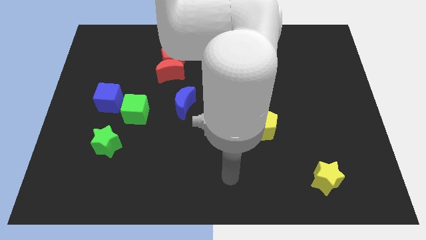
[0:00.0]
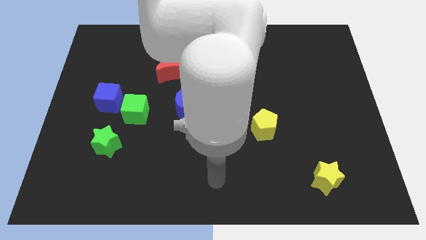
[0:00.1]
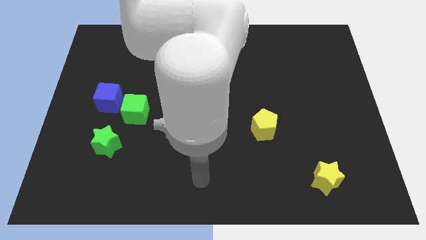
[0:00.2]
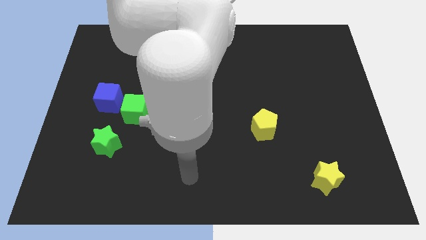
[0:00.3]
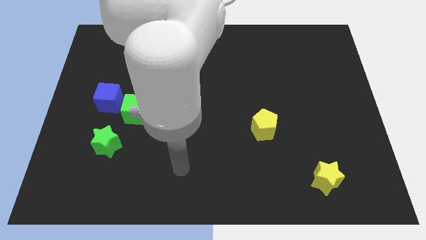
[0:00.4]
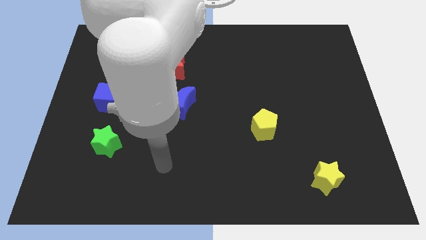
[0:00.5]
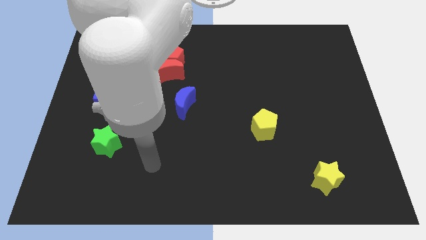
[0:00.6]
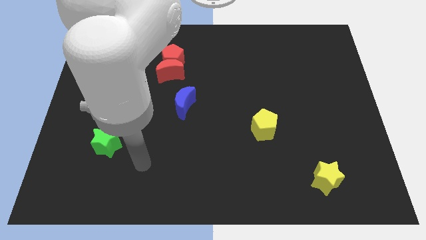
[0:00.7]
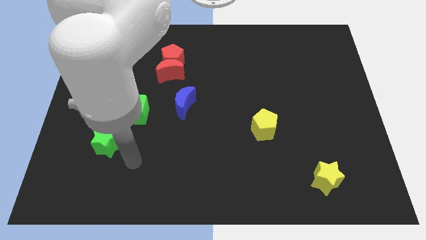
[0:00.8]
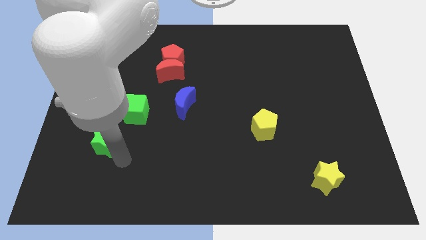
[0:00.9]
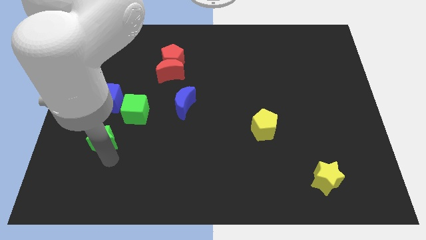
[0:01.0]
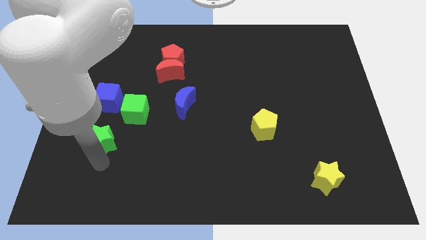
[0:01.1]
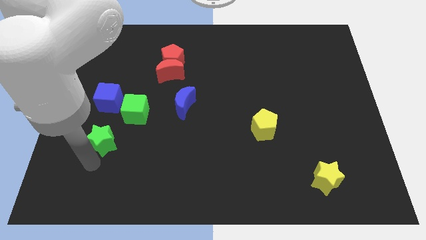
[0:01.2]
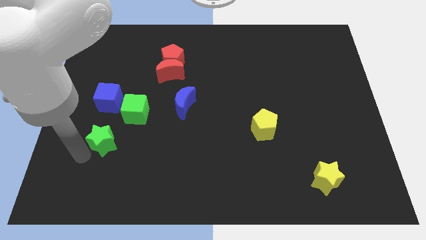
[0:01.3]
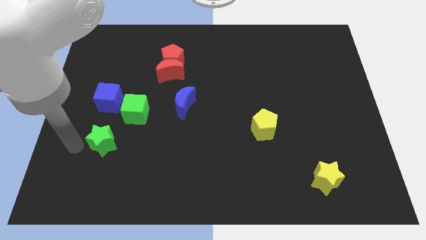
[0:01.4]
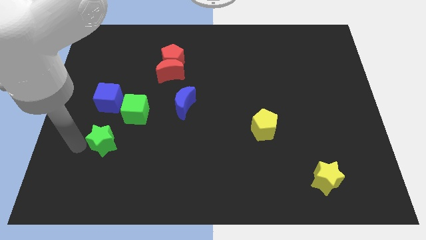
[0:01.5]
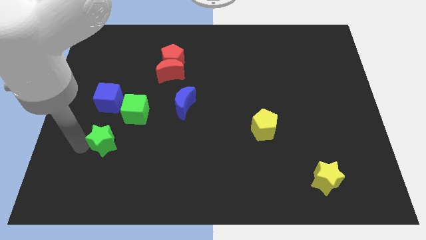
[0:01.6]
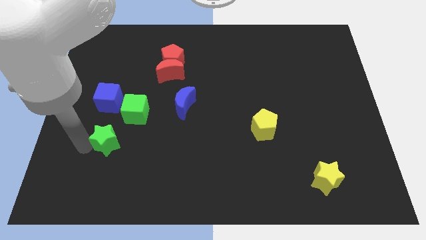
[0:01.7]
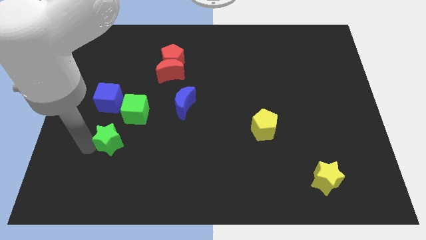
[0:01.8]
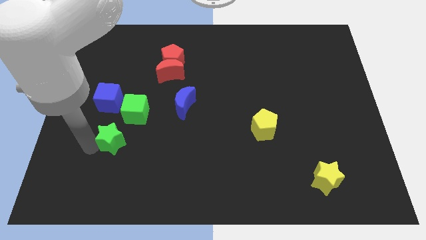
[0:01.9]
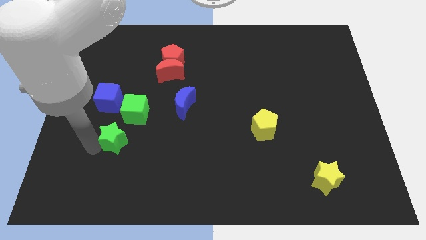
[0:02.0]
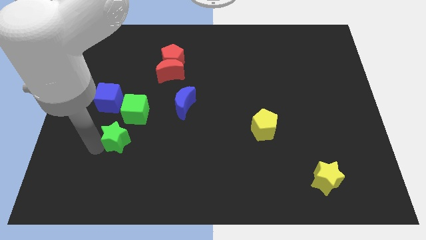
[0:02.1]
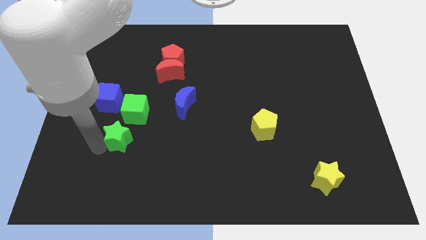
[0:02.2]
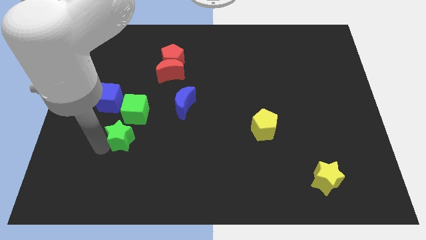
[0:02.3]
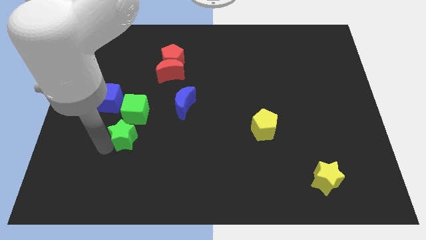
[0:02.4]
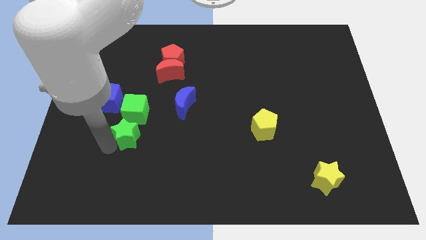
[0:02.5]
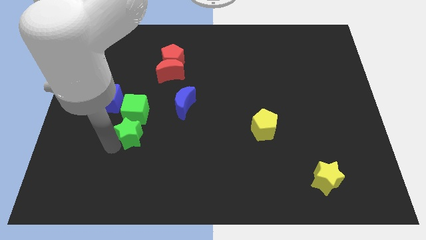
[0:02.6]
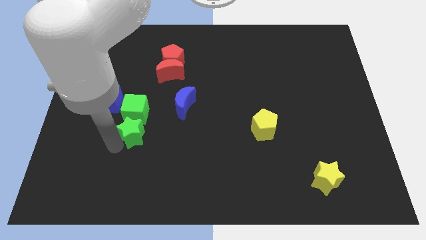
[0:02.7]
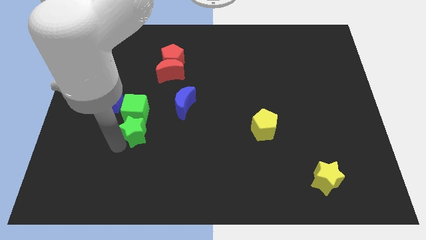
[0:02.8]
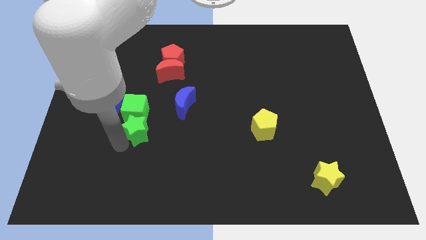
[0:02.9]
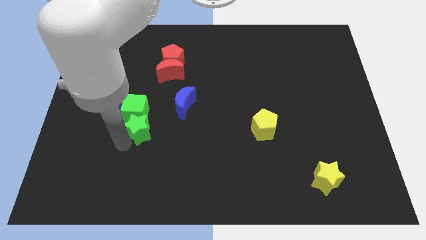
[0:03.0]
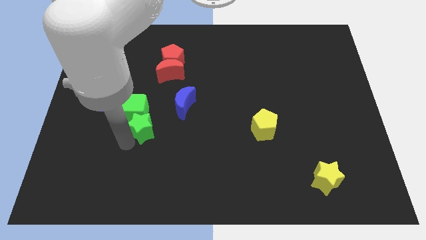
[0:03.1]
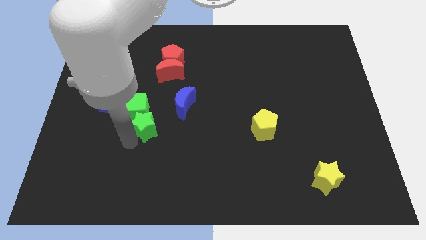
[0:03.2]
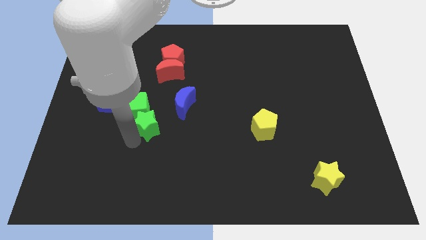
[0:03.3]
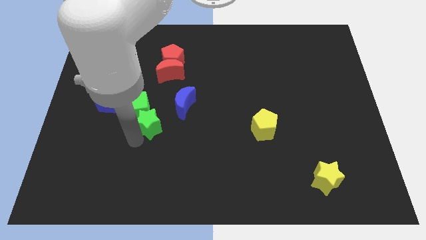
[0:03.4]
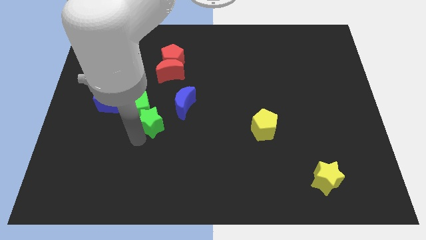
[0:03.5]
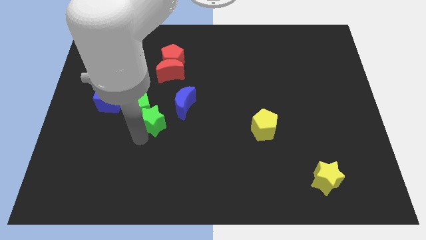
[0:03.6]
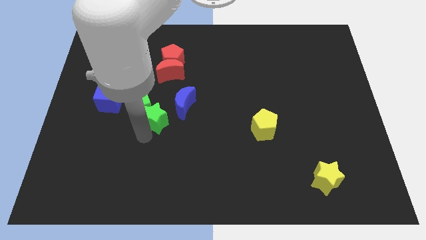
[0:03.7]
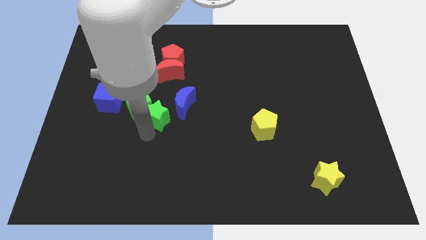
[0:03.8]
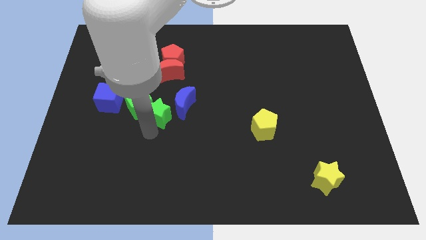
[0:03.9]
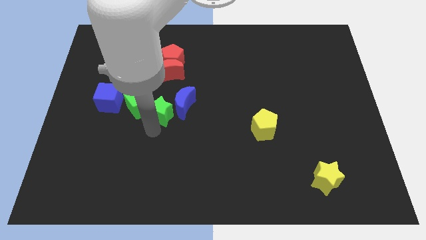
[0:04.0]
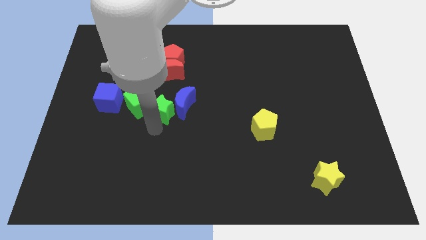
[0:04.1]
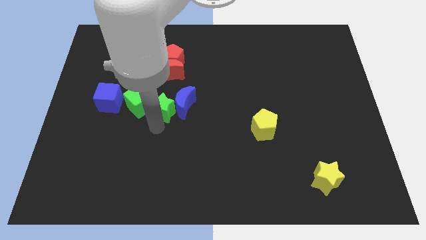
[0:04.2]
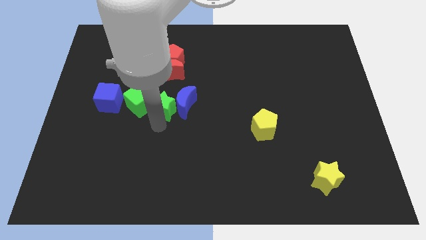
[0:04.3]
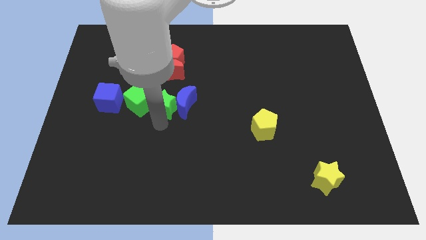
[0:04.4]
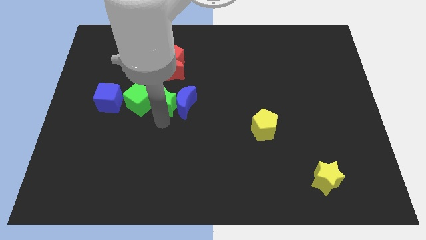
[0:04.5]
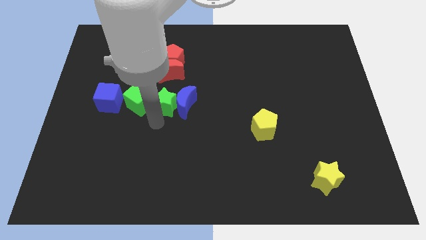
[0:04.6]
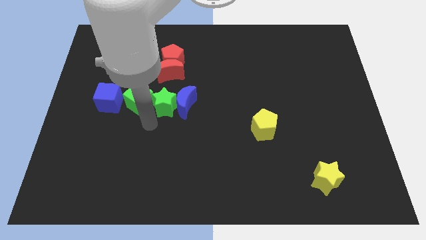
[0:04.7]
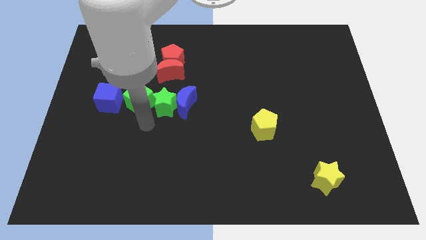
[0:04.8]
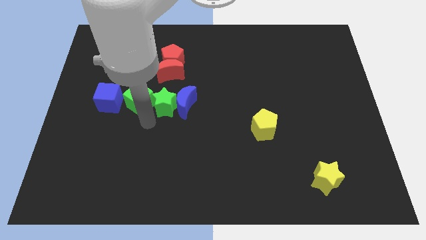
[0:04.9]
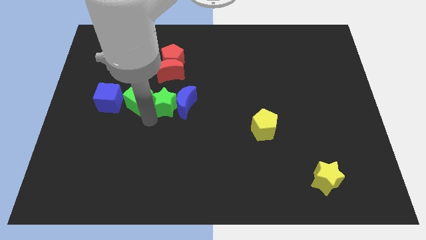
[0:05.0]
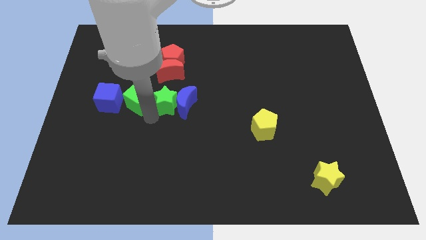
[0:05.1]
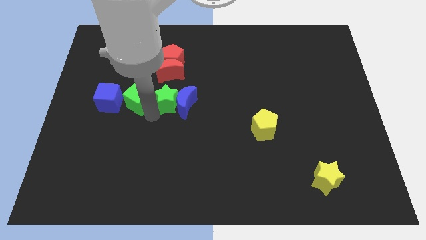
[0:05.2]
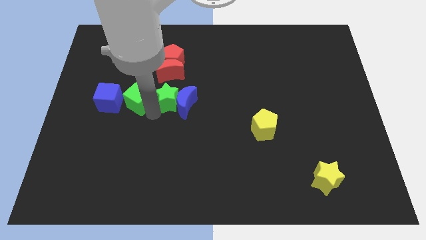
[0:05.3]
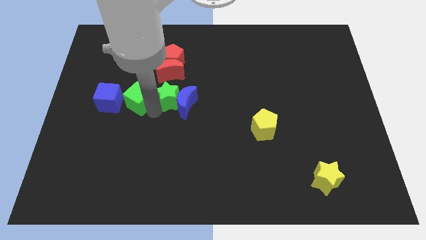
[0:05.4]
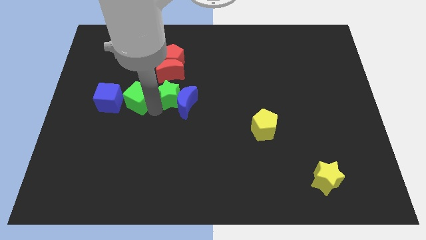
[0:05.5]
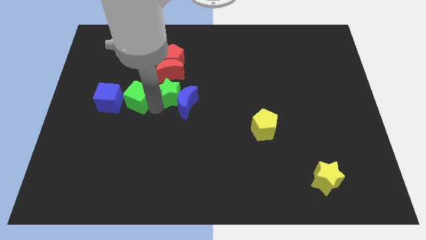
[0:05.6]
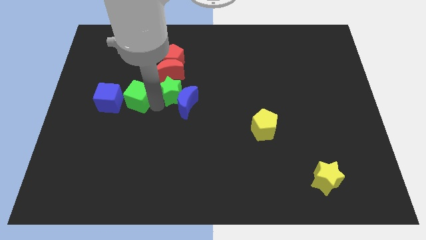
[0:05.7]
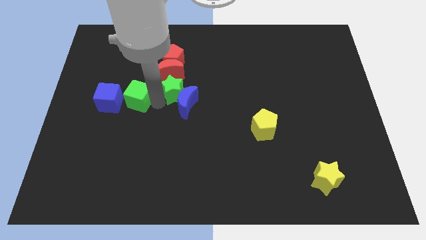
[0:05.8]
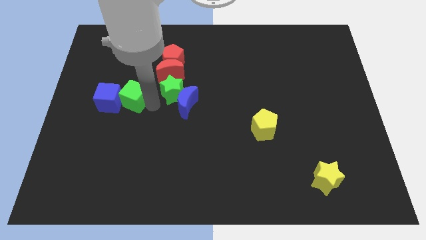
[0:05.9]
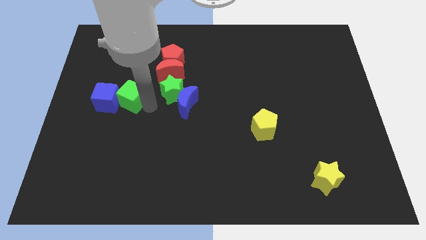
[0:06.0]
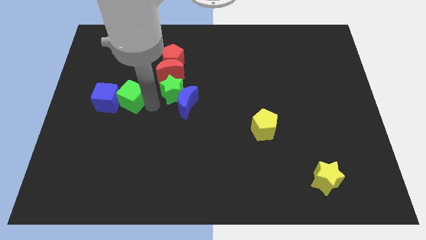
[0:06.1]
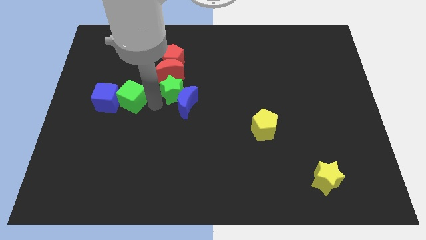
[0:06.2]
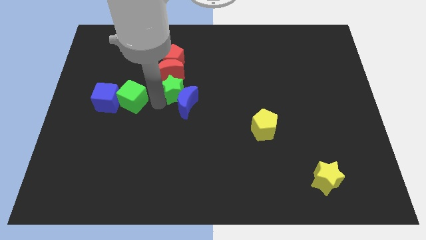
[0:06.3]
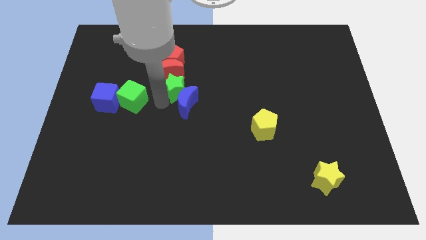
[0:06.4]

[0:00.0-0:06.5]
move the green star up and to the right diagonally

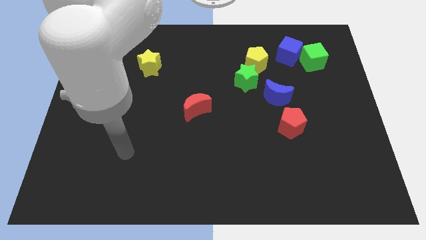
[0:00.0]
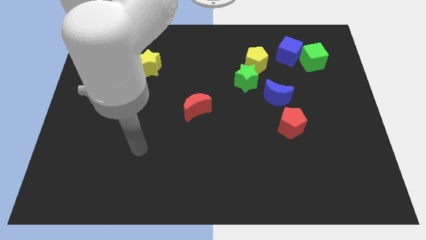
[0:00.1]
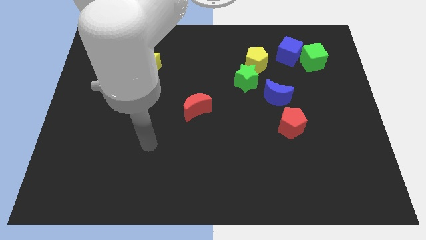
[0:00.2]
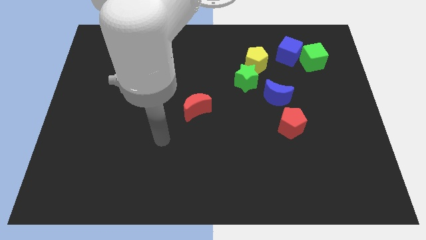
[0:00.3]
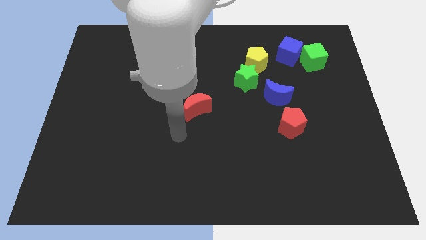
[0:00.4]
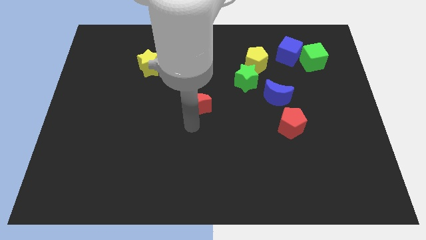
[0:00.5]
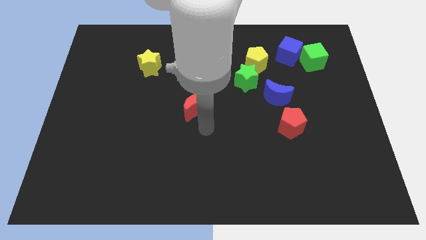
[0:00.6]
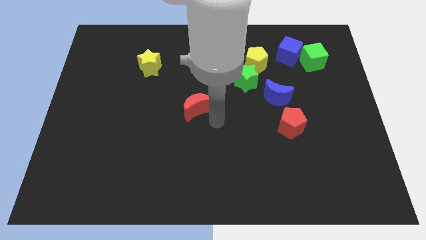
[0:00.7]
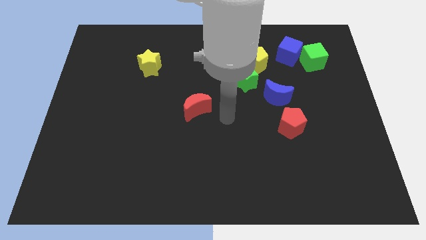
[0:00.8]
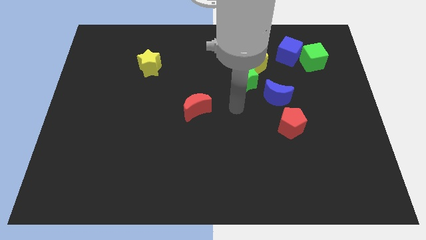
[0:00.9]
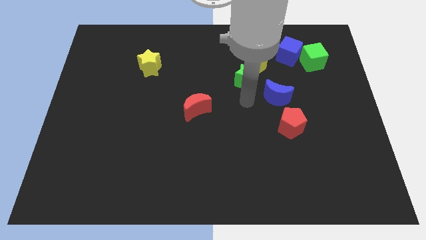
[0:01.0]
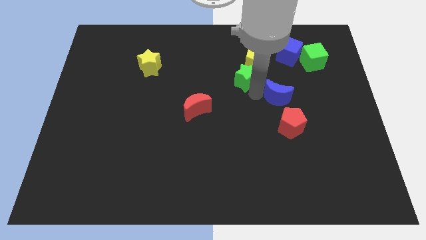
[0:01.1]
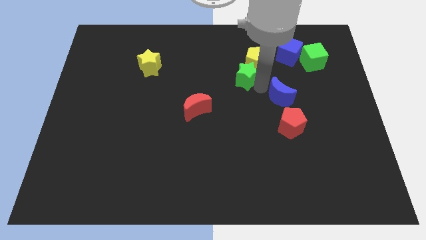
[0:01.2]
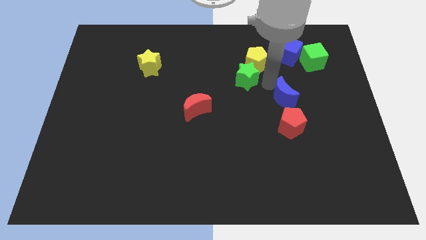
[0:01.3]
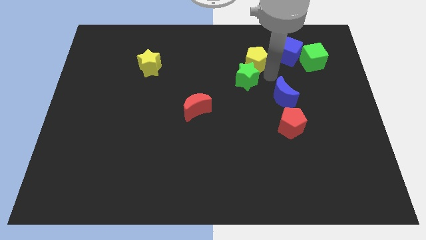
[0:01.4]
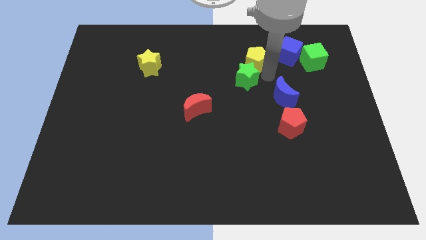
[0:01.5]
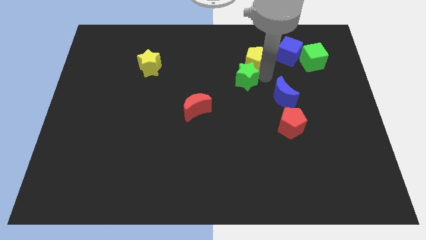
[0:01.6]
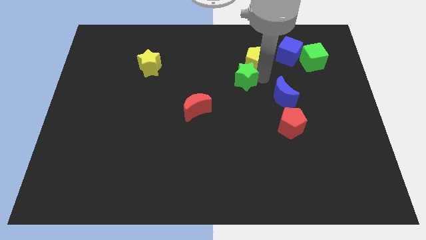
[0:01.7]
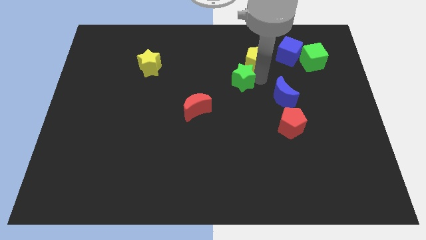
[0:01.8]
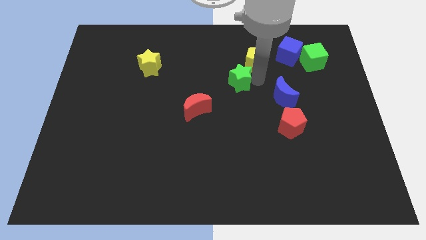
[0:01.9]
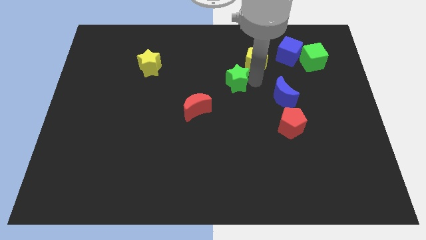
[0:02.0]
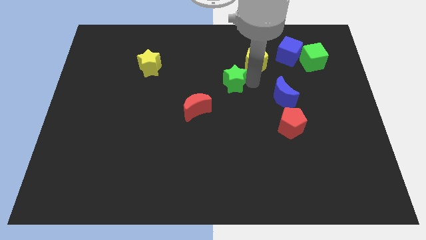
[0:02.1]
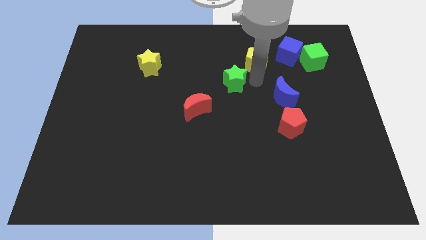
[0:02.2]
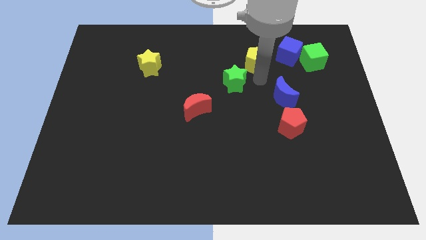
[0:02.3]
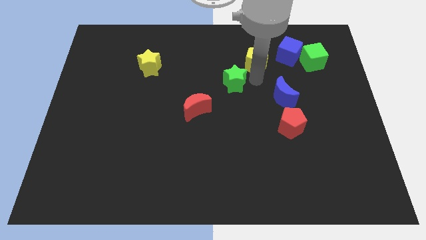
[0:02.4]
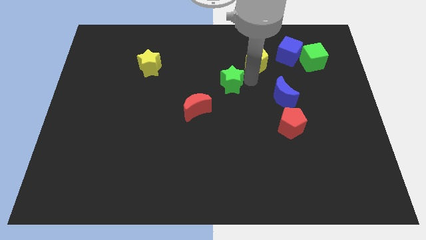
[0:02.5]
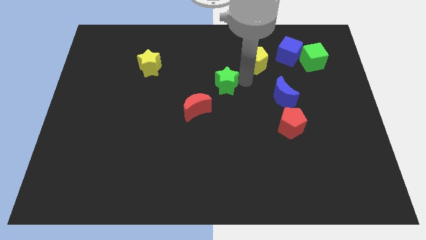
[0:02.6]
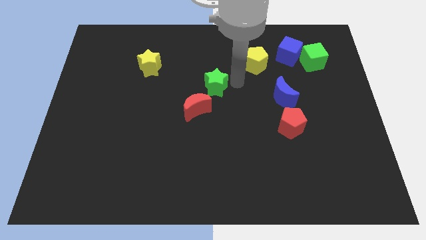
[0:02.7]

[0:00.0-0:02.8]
slightly slide the green star left
